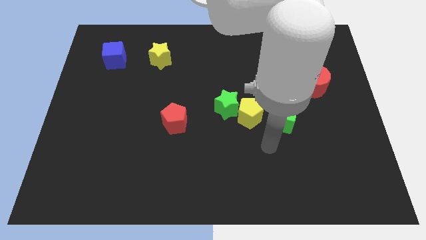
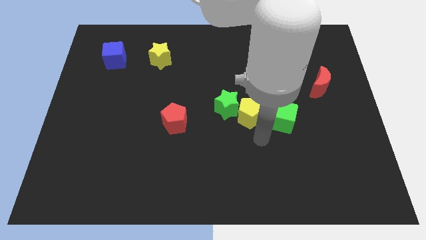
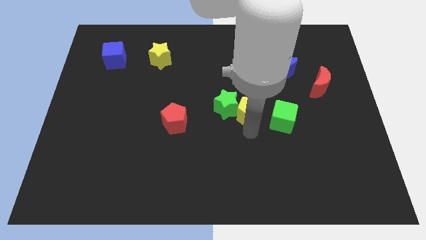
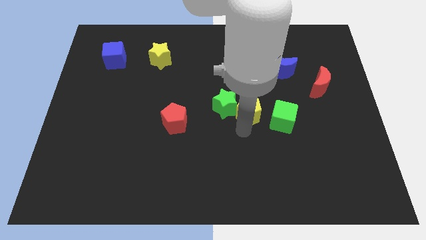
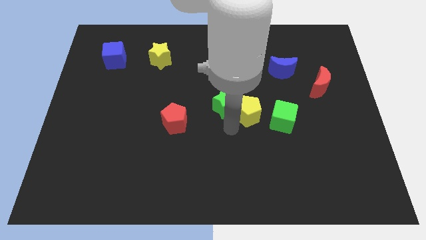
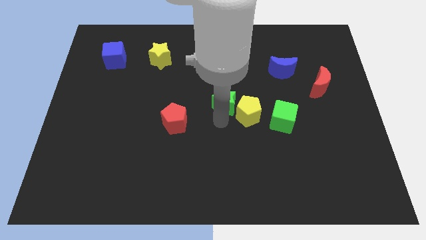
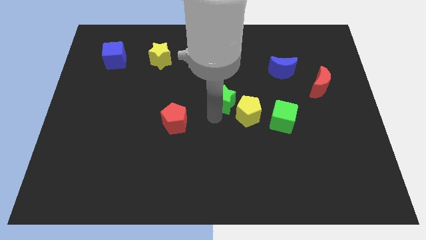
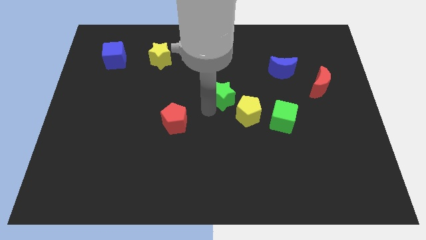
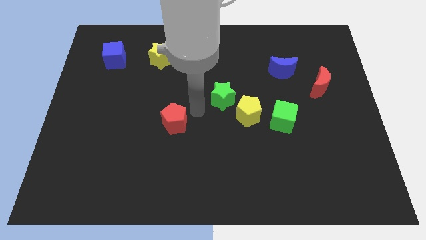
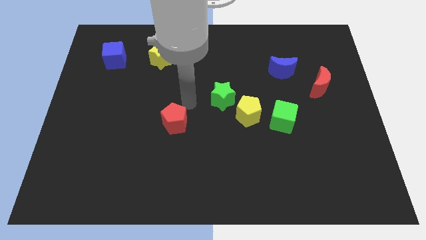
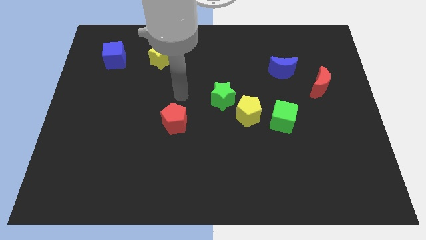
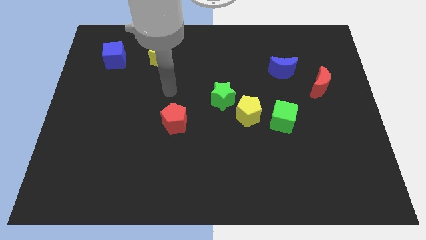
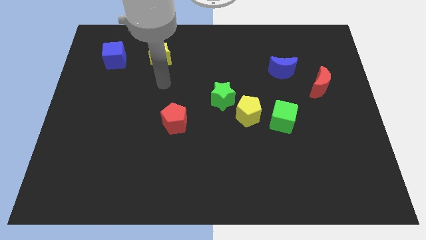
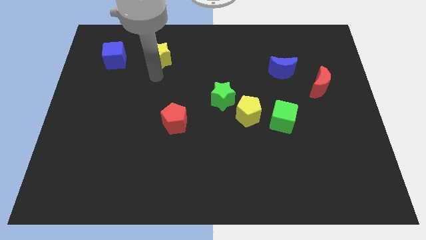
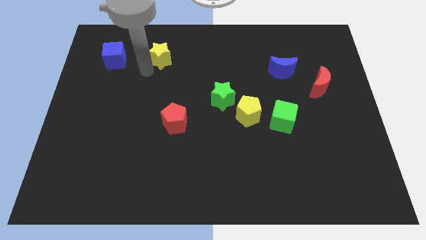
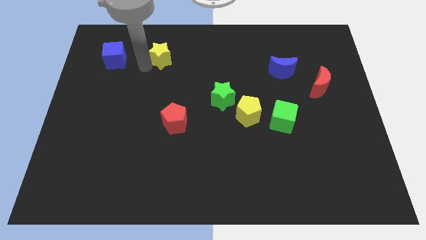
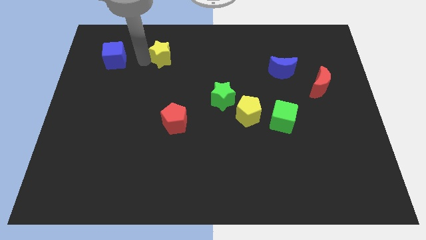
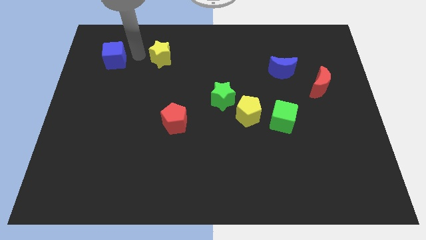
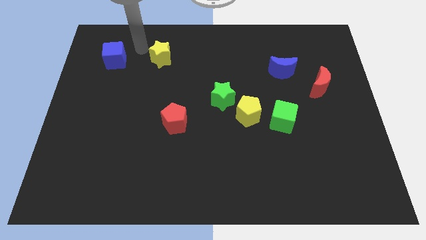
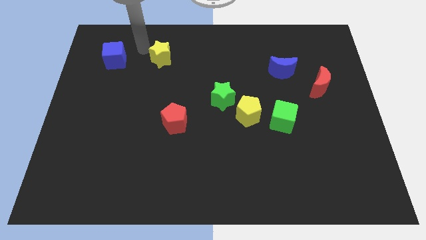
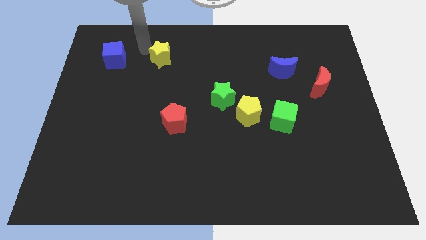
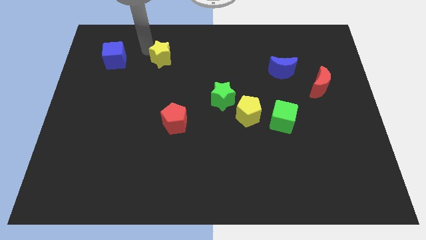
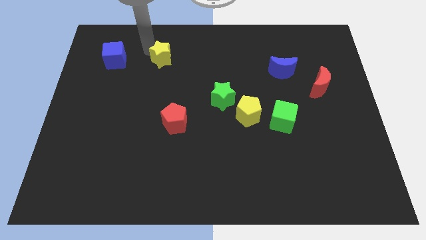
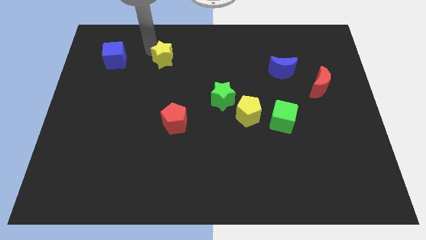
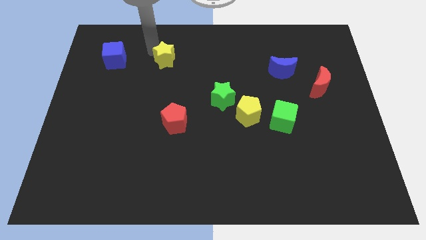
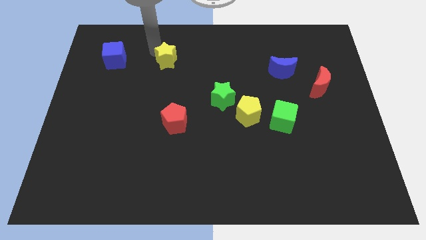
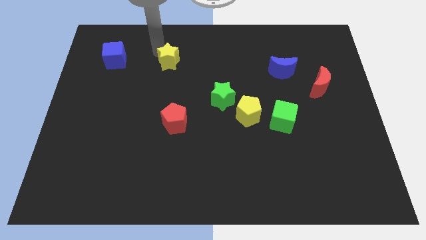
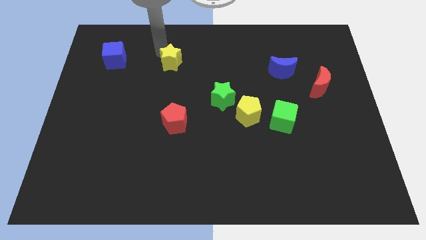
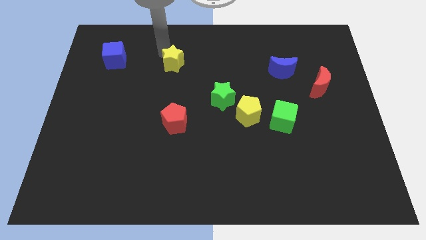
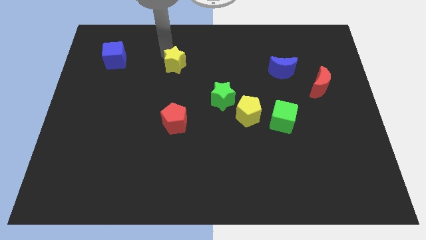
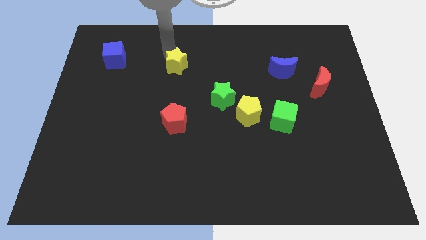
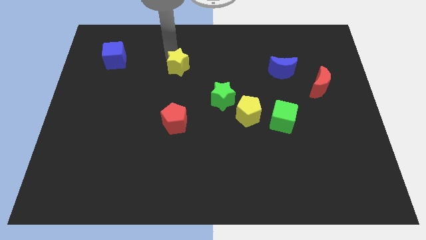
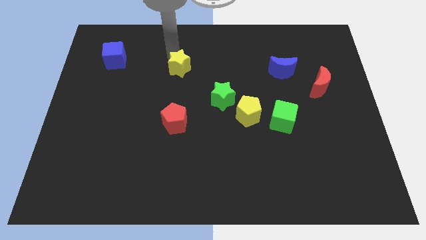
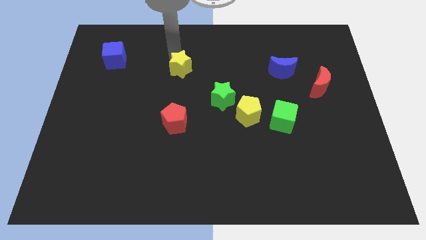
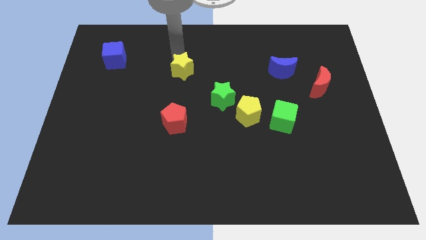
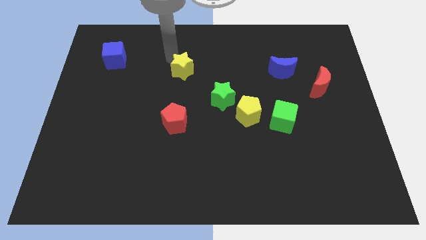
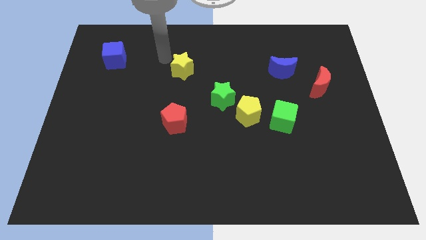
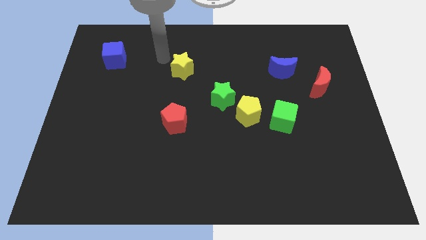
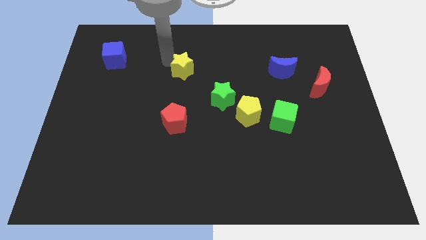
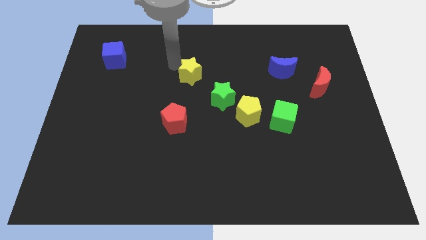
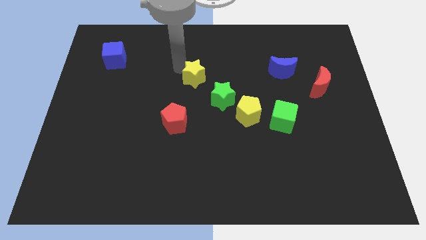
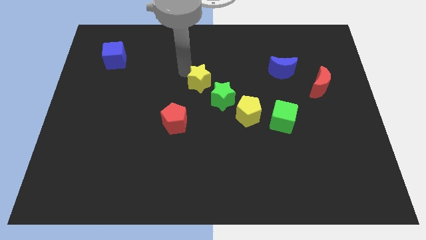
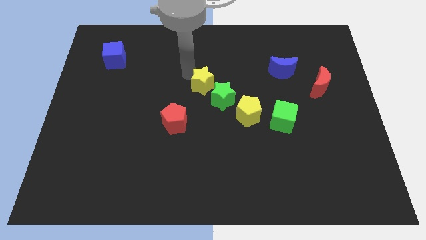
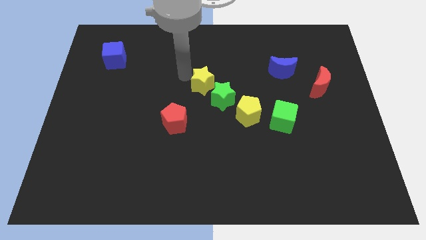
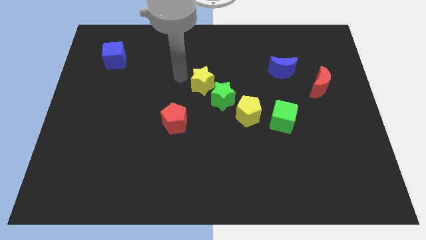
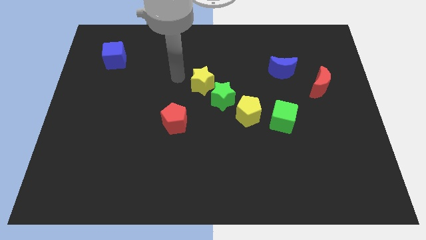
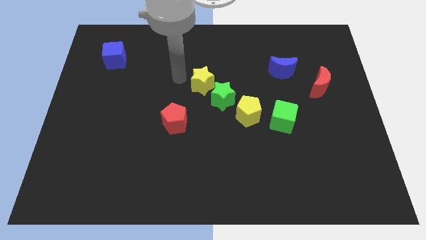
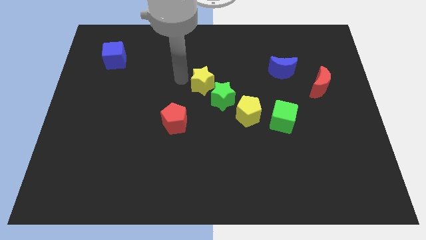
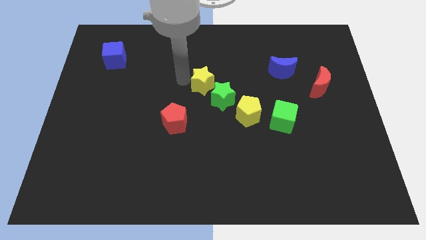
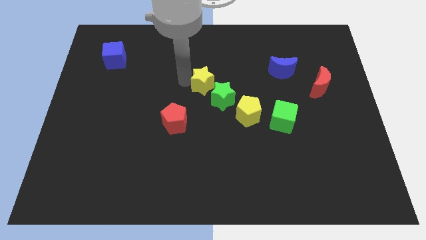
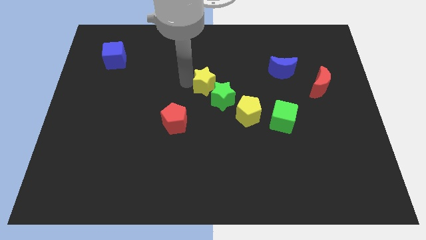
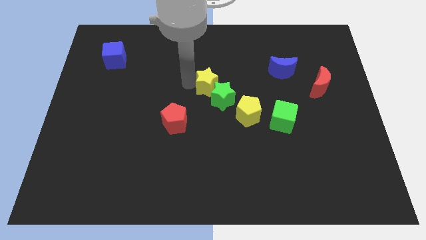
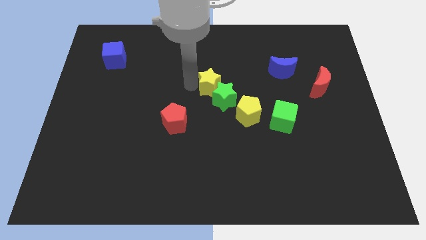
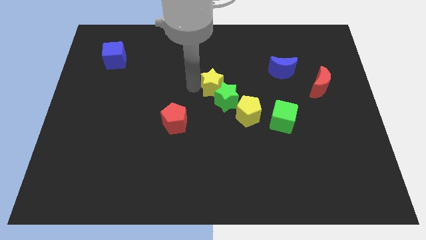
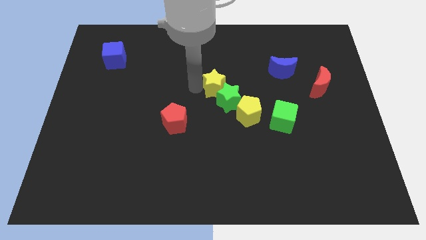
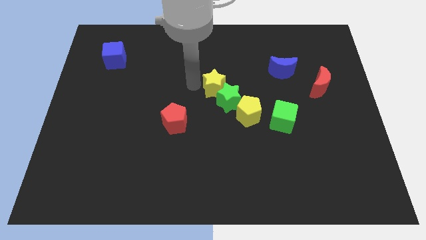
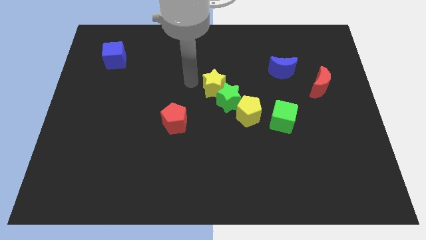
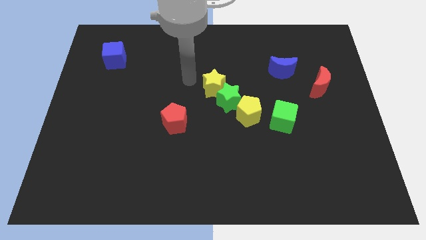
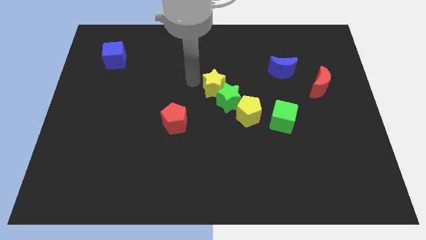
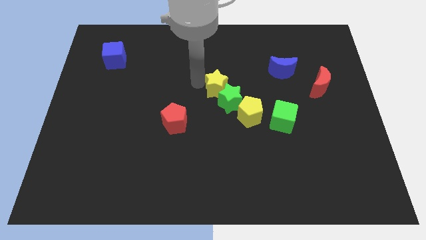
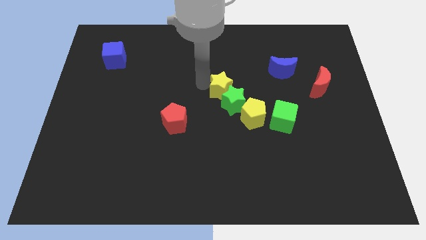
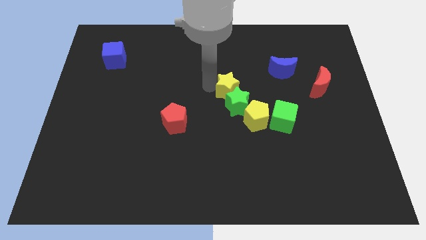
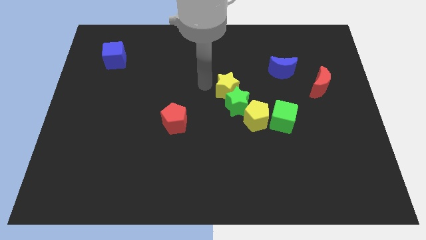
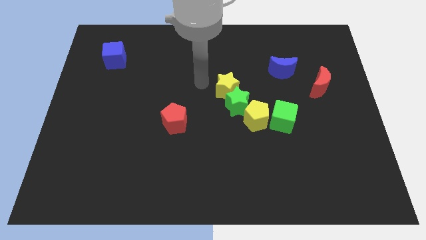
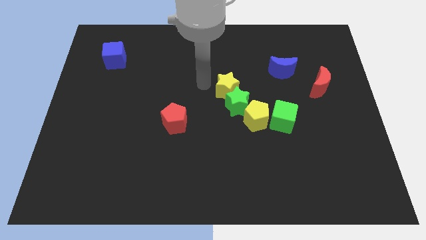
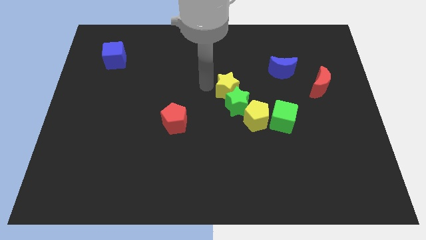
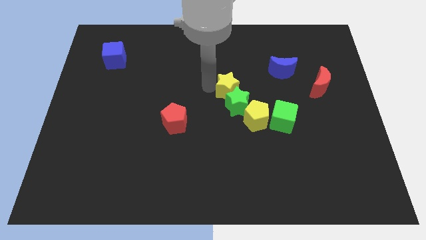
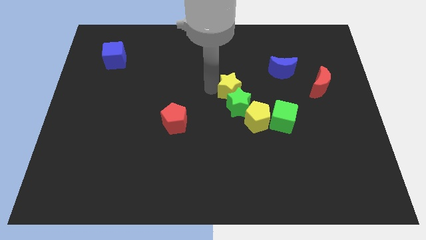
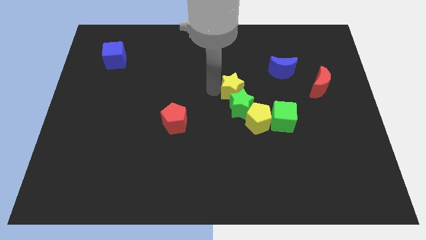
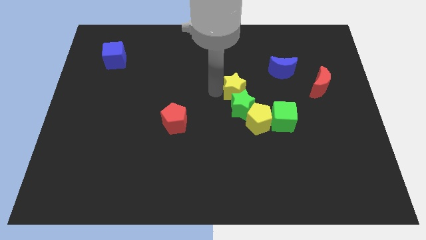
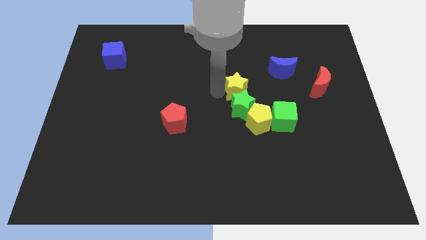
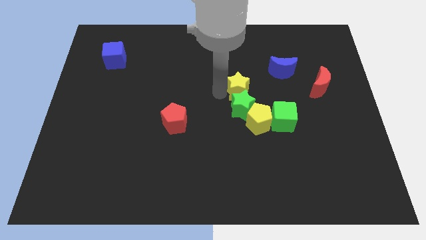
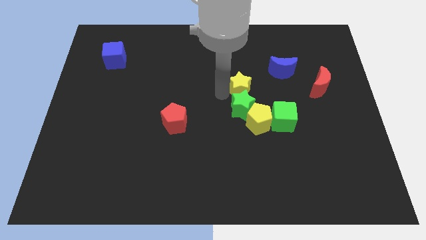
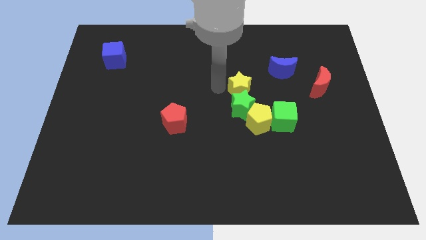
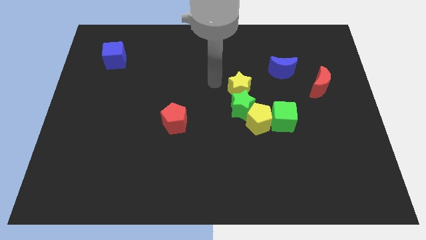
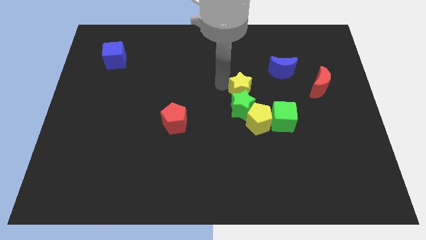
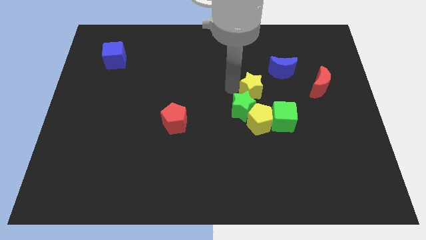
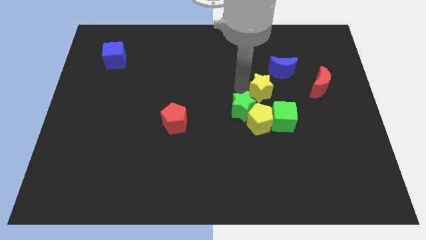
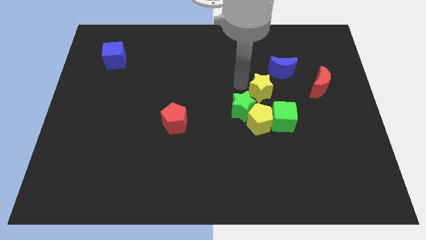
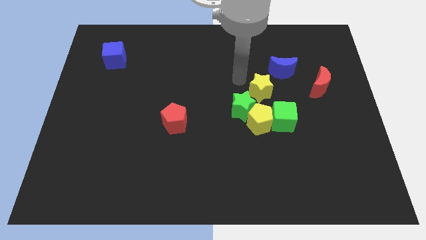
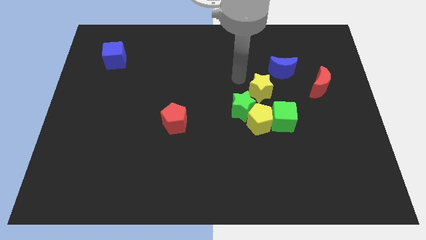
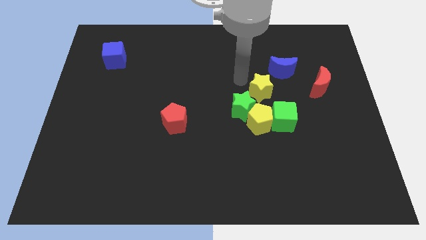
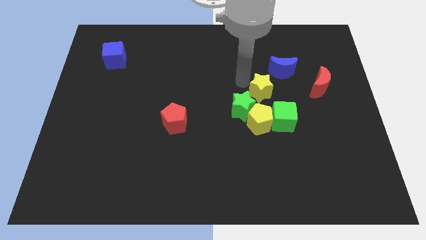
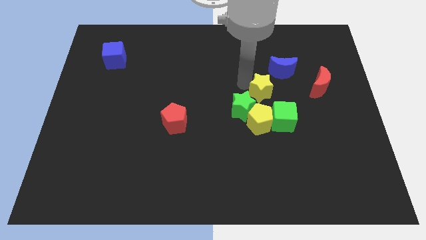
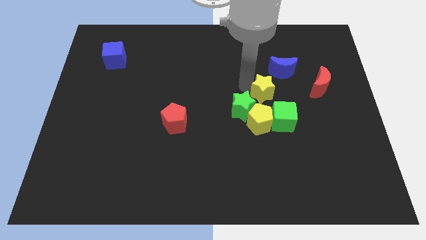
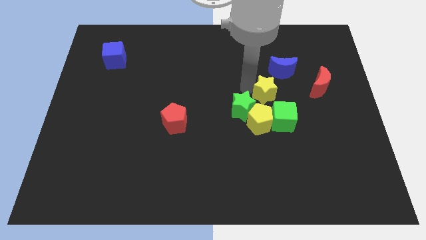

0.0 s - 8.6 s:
move the yellow star to the top right of the yellow pentagon
